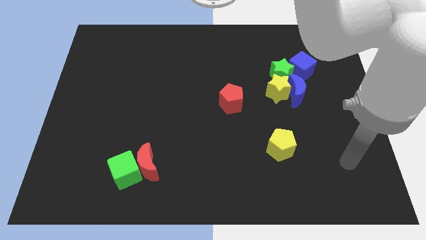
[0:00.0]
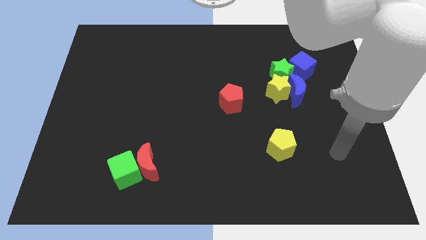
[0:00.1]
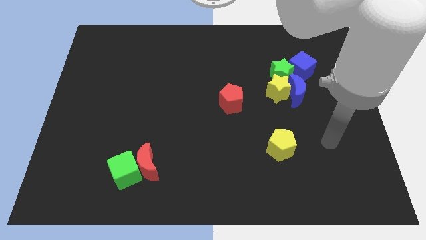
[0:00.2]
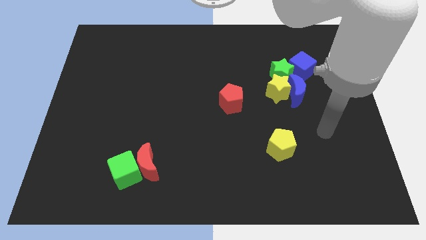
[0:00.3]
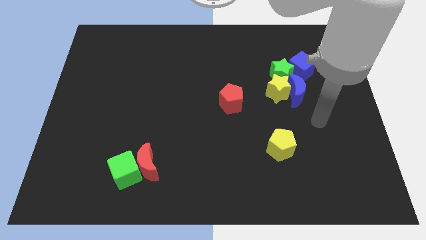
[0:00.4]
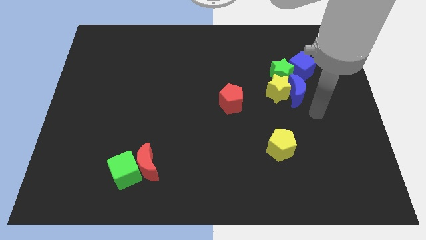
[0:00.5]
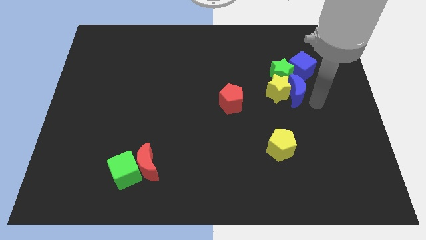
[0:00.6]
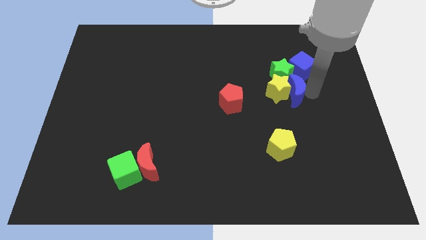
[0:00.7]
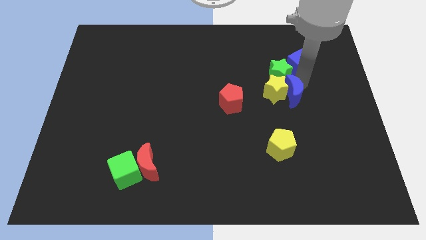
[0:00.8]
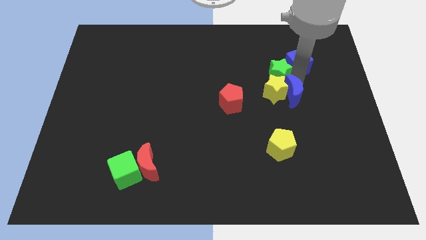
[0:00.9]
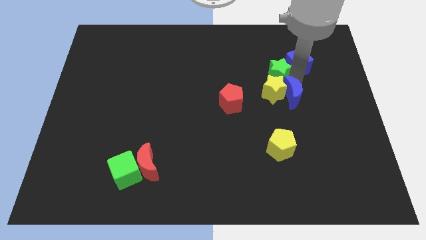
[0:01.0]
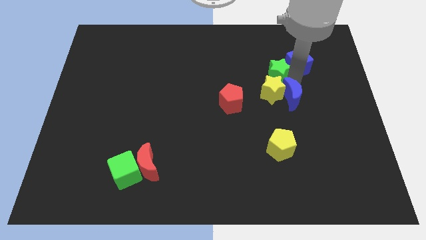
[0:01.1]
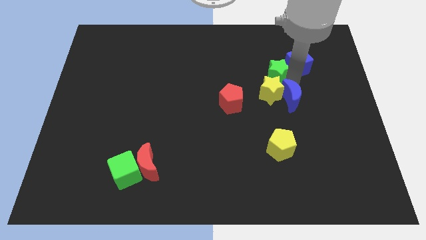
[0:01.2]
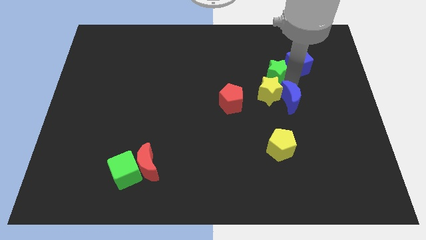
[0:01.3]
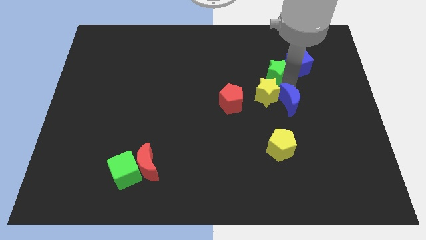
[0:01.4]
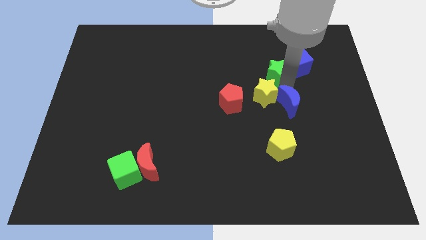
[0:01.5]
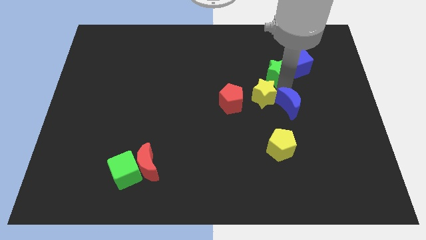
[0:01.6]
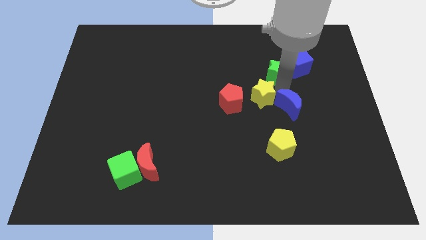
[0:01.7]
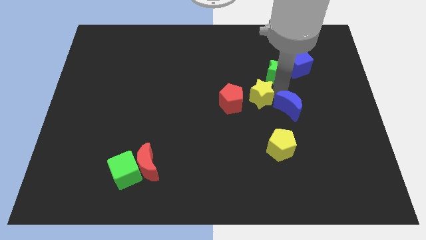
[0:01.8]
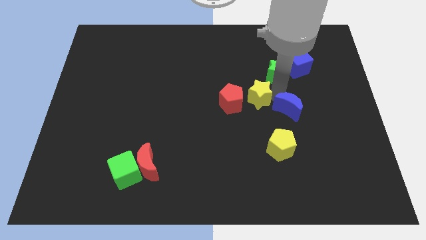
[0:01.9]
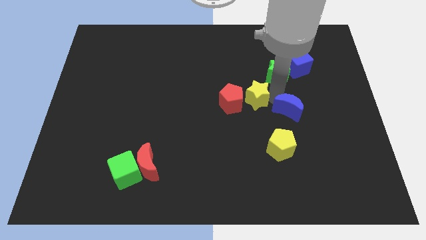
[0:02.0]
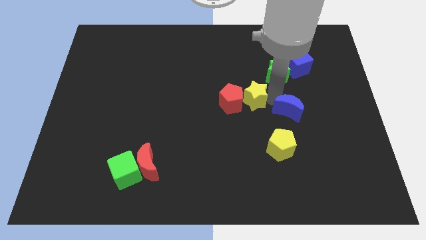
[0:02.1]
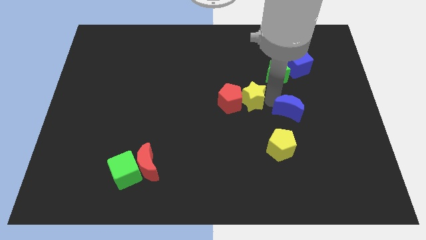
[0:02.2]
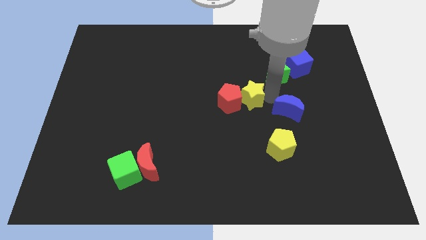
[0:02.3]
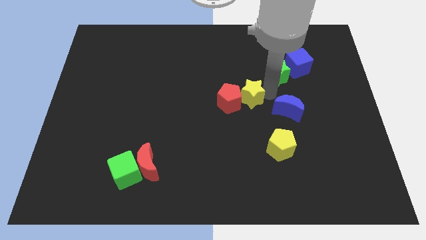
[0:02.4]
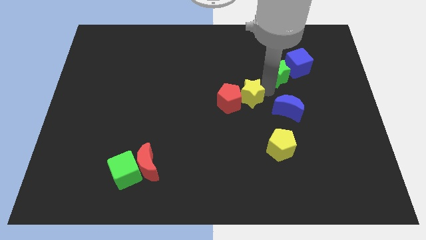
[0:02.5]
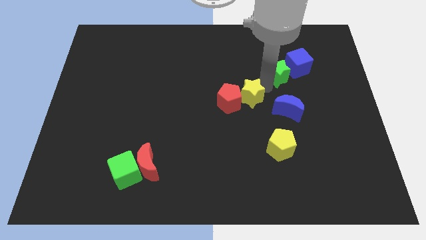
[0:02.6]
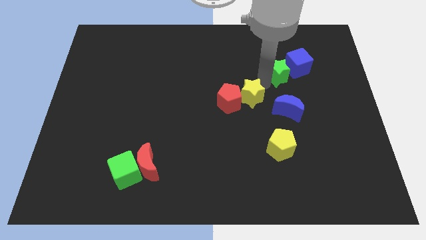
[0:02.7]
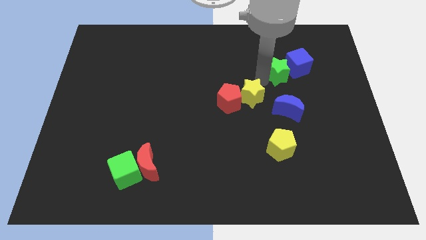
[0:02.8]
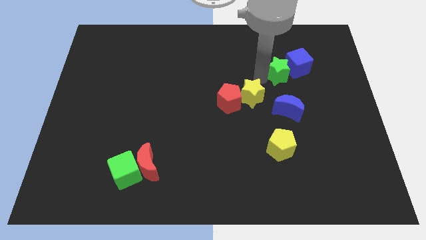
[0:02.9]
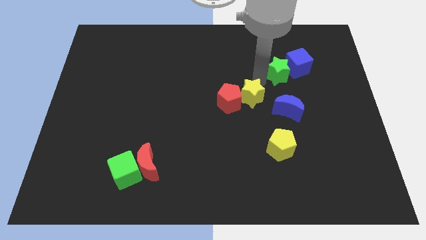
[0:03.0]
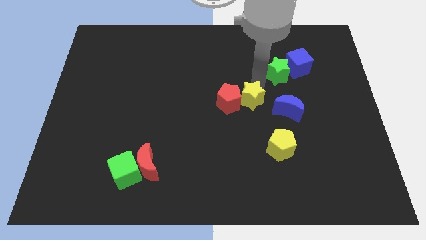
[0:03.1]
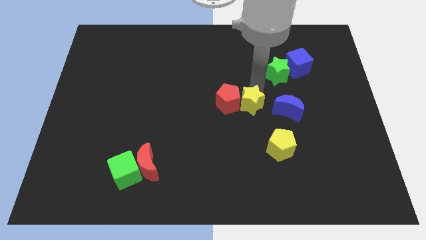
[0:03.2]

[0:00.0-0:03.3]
slide the yellow star a little downwards and to the left

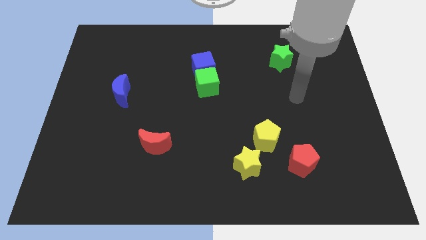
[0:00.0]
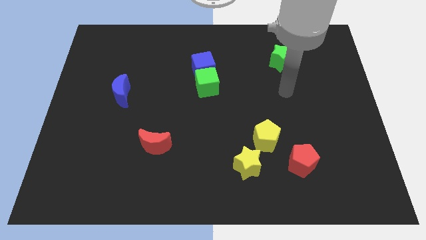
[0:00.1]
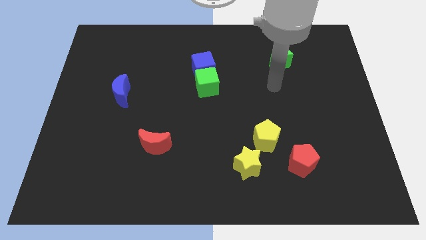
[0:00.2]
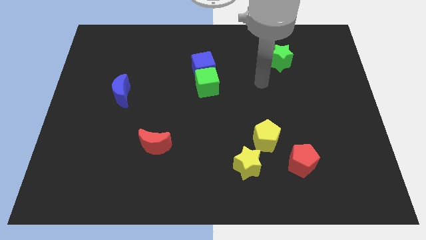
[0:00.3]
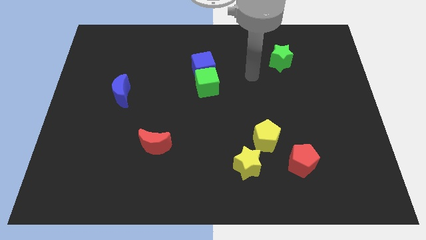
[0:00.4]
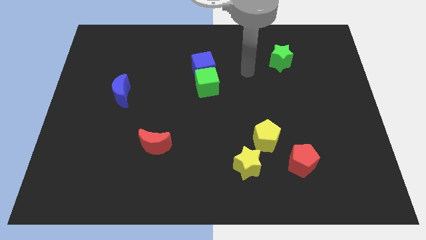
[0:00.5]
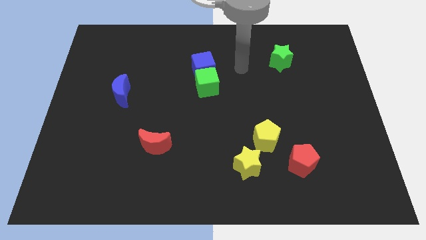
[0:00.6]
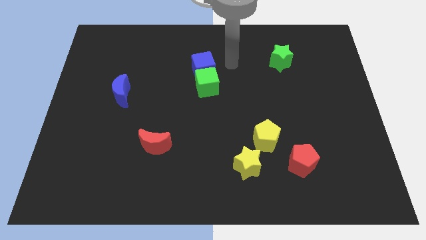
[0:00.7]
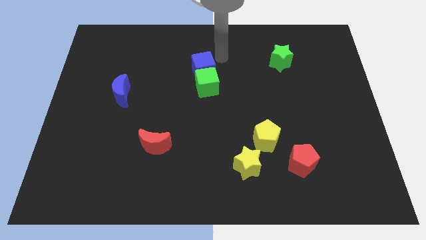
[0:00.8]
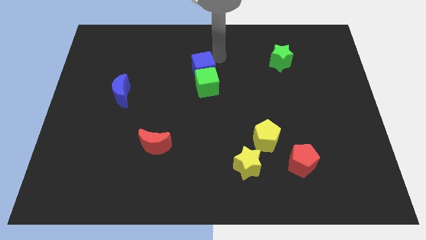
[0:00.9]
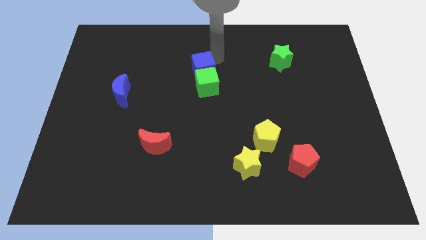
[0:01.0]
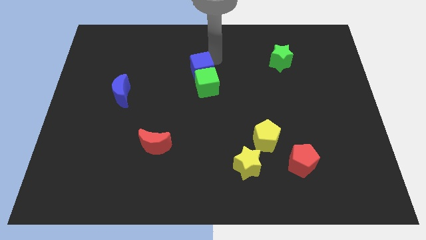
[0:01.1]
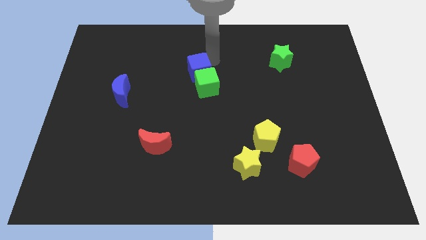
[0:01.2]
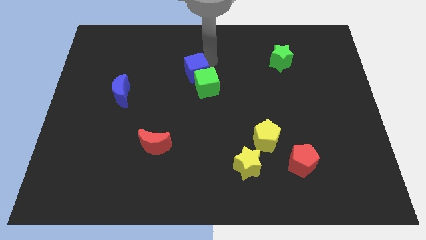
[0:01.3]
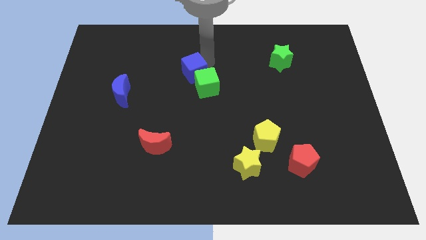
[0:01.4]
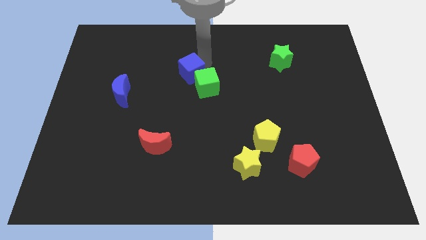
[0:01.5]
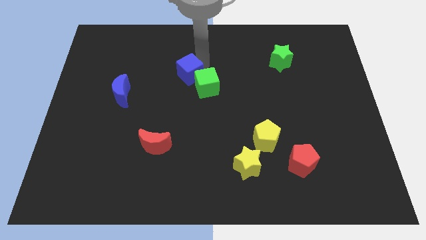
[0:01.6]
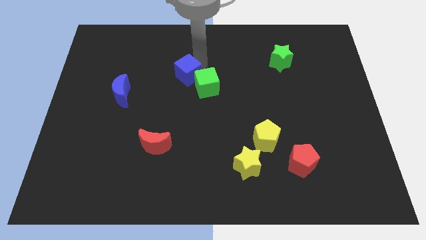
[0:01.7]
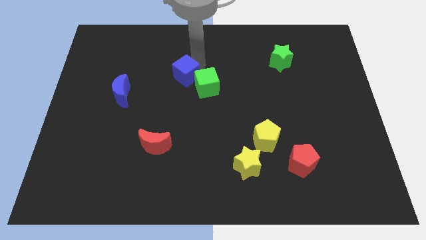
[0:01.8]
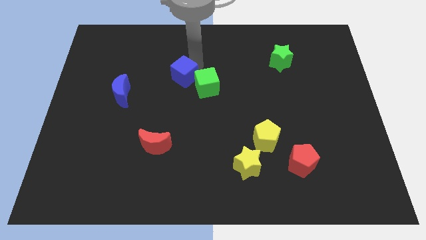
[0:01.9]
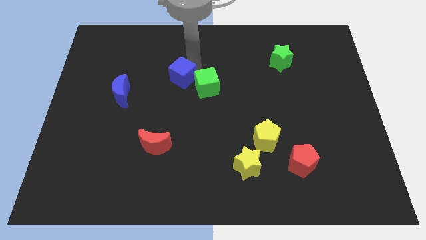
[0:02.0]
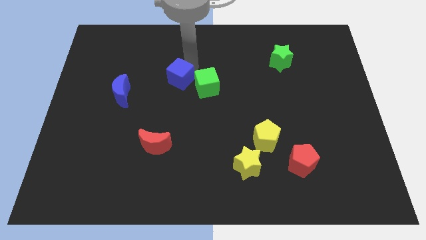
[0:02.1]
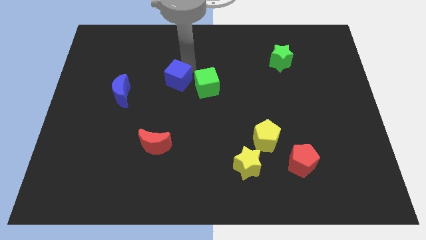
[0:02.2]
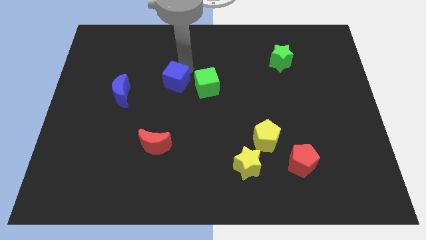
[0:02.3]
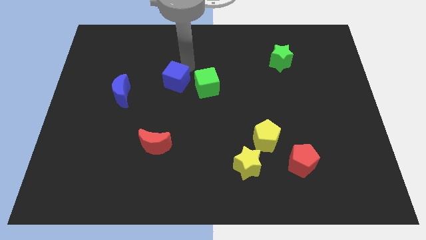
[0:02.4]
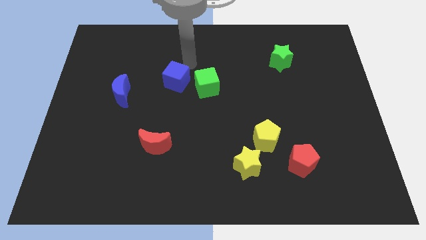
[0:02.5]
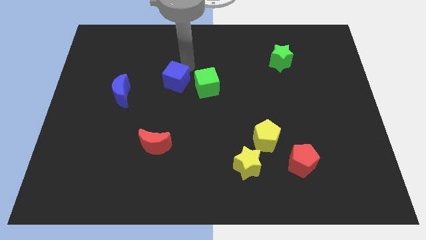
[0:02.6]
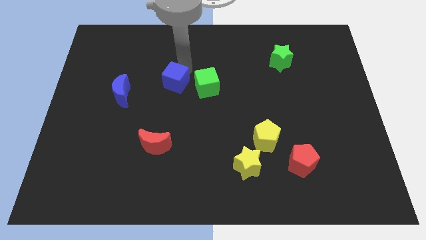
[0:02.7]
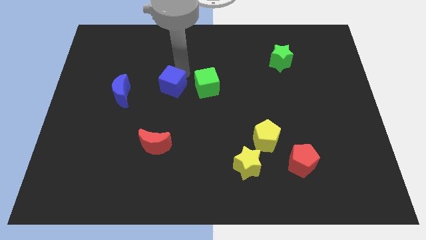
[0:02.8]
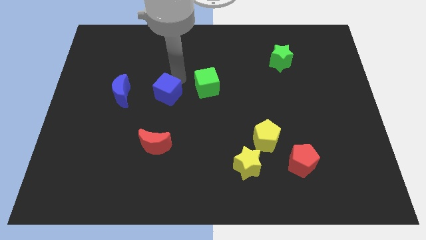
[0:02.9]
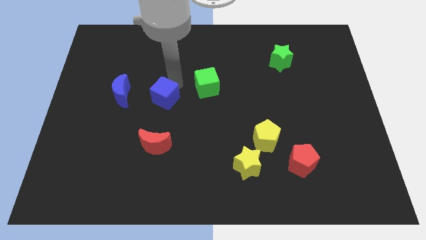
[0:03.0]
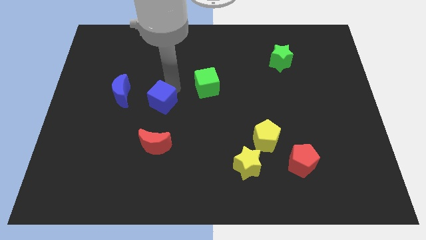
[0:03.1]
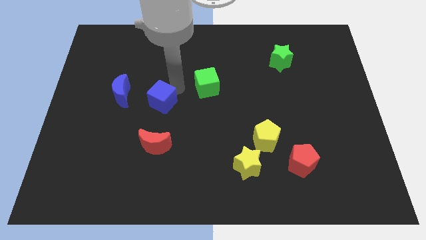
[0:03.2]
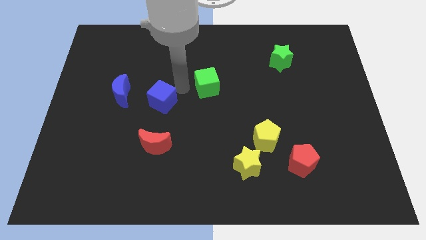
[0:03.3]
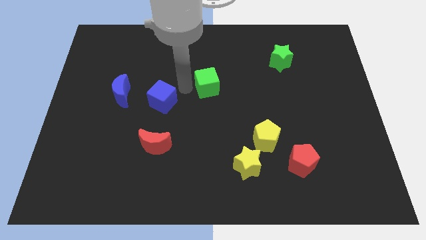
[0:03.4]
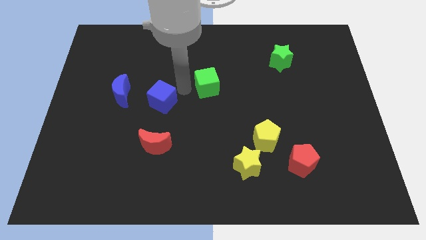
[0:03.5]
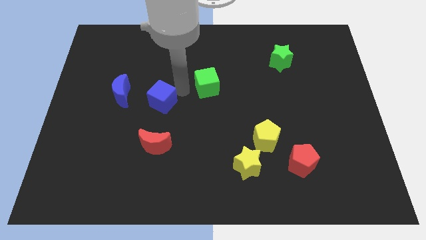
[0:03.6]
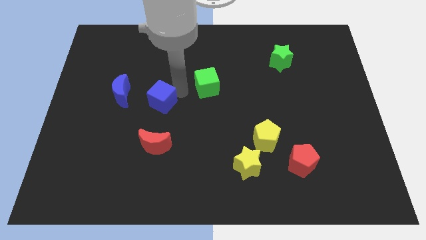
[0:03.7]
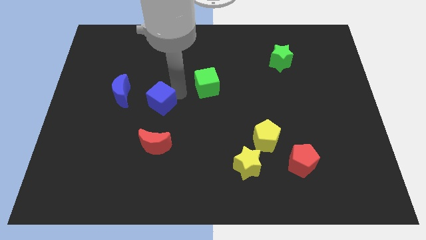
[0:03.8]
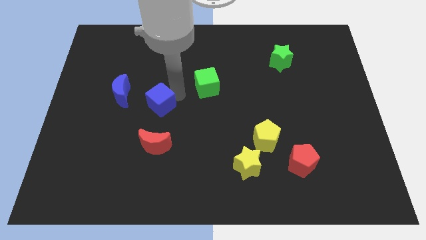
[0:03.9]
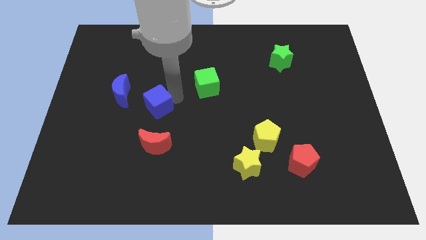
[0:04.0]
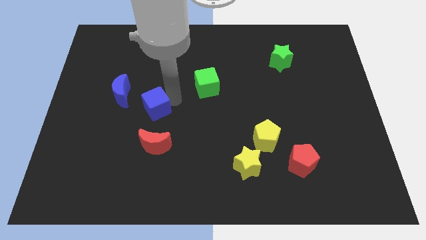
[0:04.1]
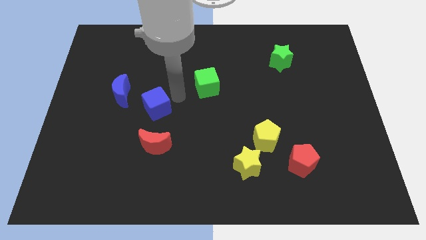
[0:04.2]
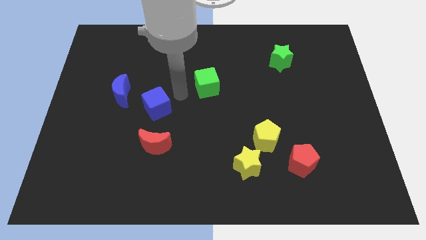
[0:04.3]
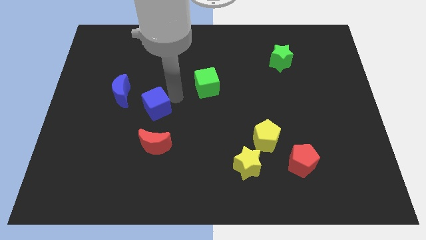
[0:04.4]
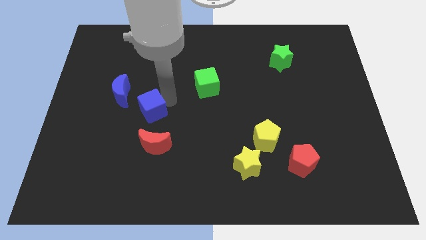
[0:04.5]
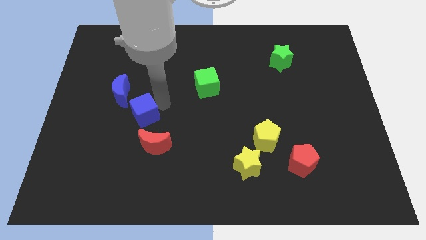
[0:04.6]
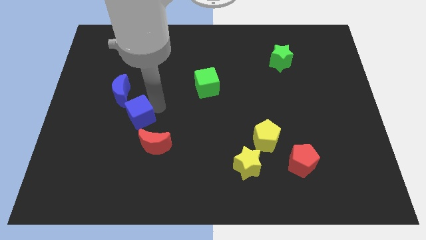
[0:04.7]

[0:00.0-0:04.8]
move the blue cube down and left diagonally
